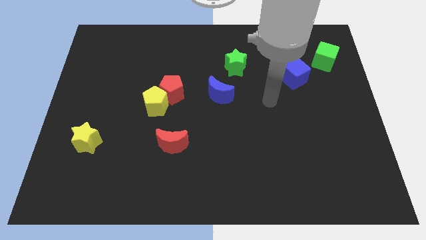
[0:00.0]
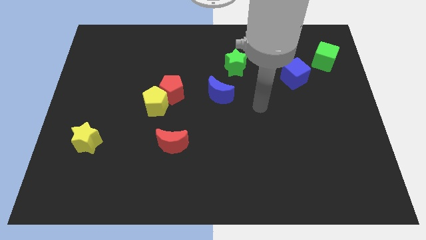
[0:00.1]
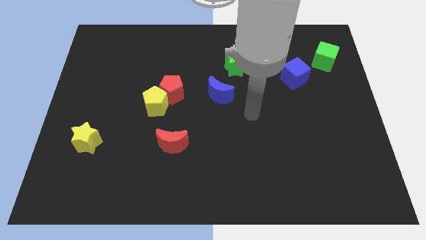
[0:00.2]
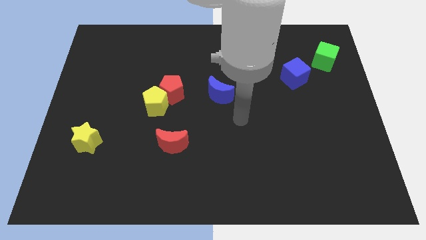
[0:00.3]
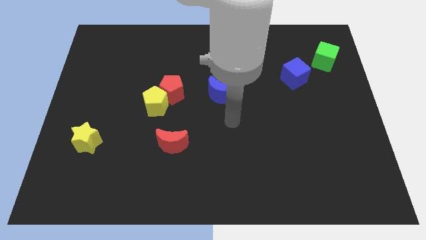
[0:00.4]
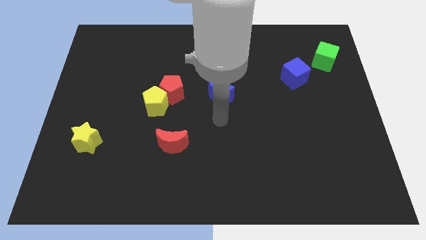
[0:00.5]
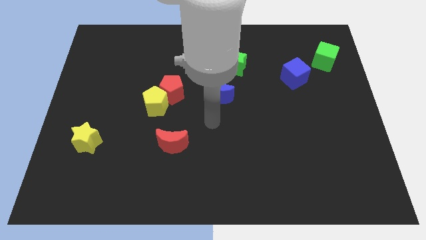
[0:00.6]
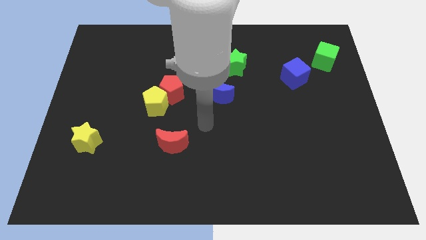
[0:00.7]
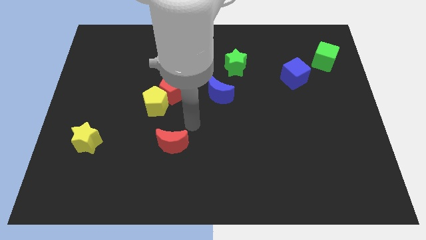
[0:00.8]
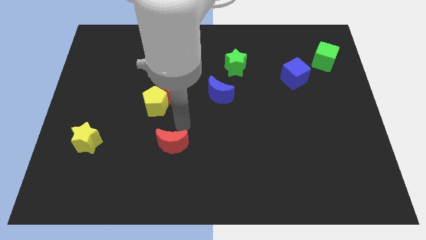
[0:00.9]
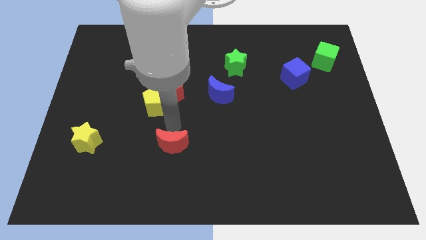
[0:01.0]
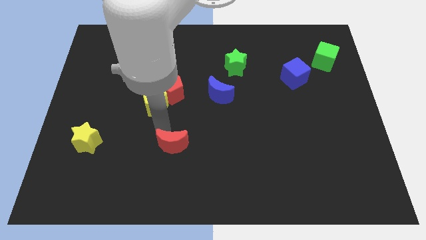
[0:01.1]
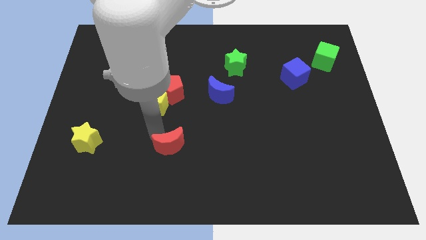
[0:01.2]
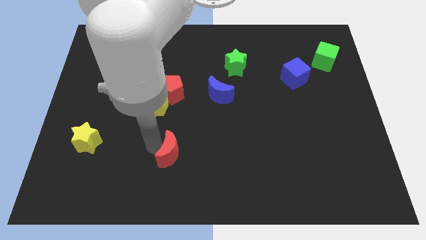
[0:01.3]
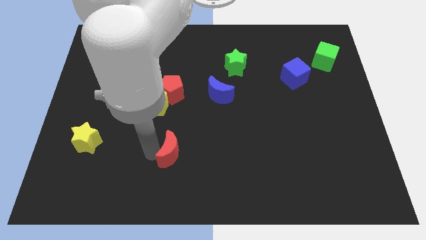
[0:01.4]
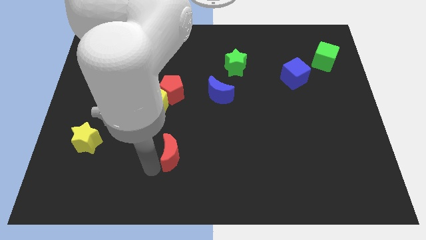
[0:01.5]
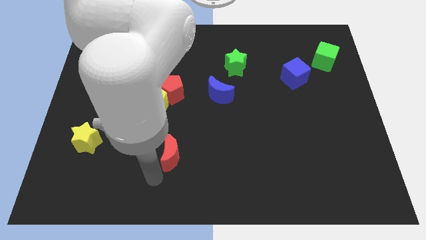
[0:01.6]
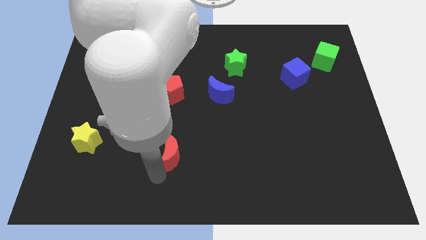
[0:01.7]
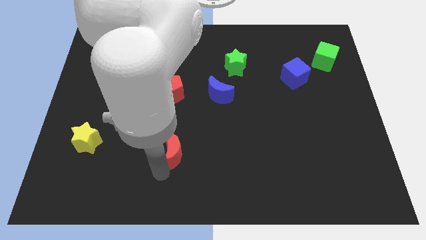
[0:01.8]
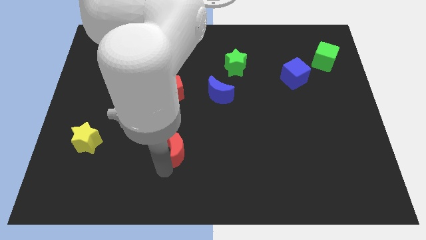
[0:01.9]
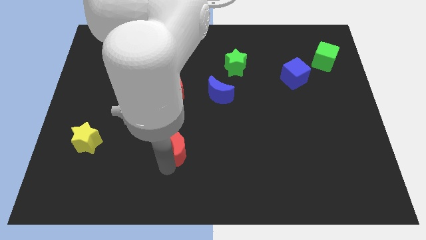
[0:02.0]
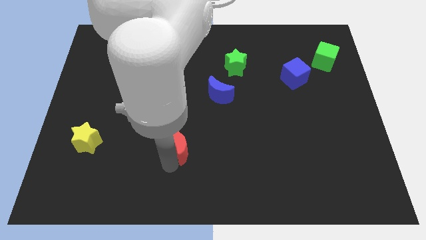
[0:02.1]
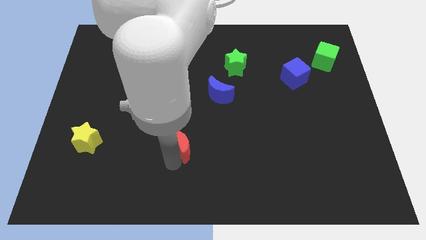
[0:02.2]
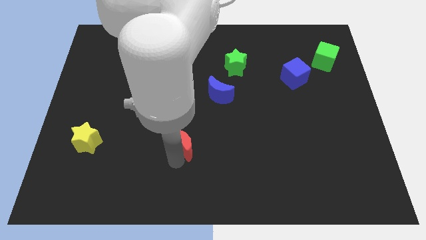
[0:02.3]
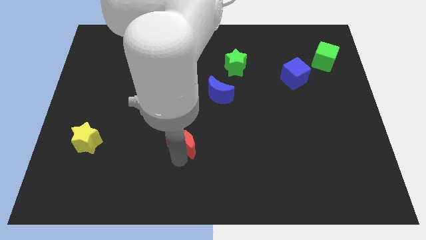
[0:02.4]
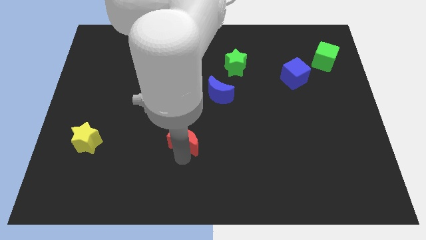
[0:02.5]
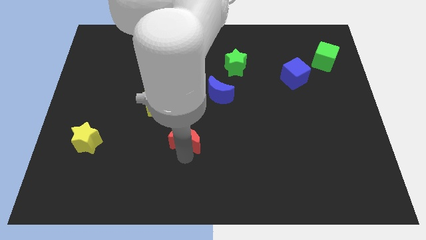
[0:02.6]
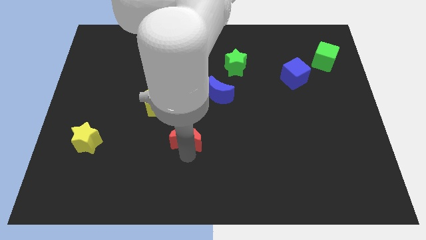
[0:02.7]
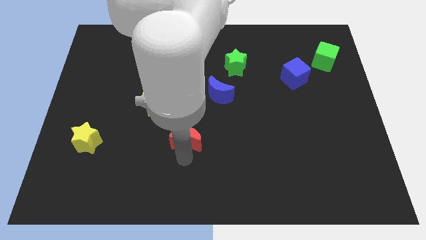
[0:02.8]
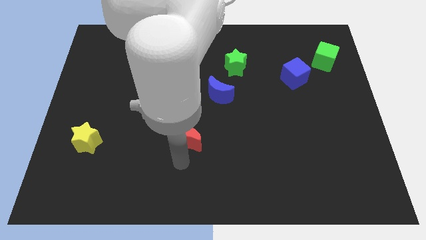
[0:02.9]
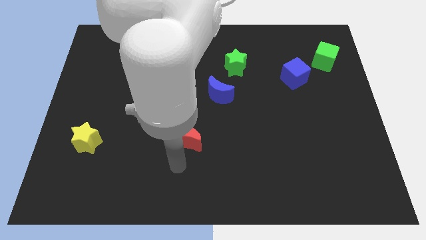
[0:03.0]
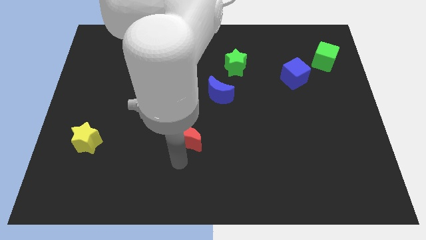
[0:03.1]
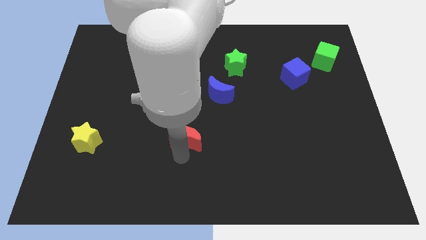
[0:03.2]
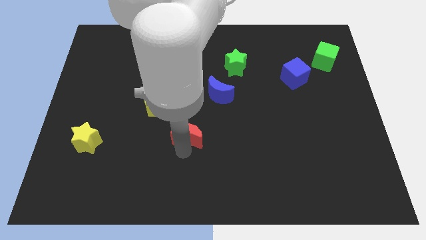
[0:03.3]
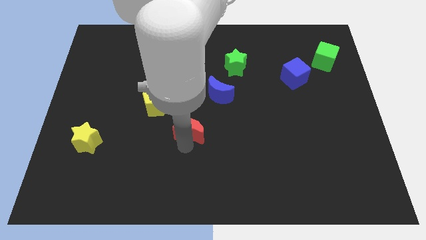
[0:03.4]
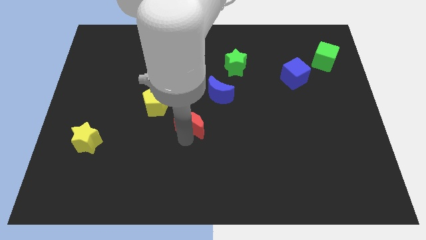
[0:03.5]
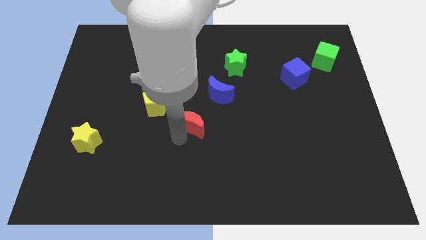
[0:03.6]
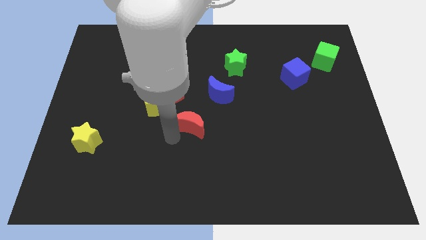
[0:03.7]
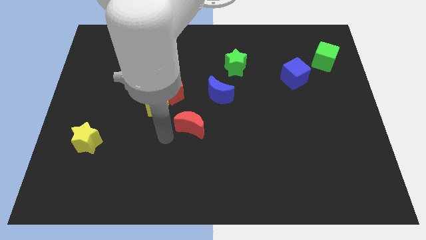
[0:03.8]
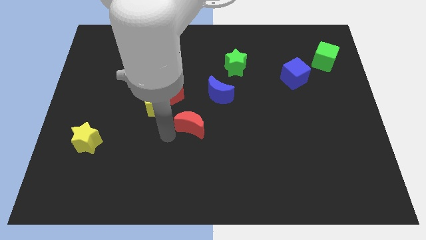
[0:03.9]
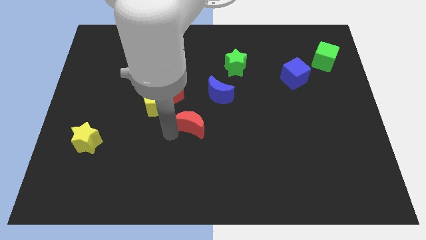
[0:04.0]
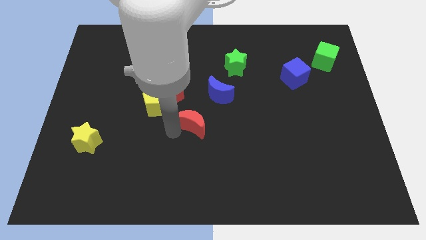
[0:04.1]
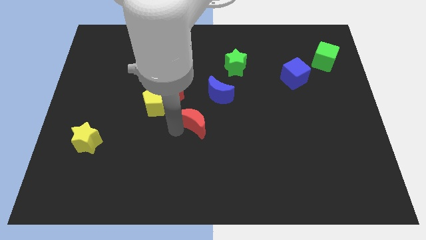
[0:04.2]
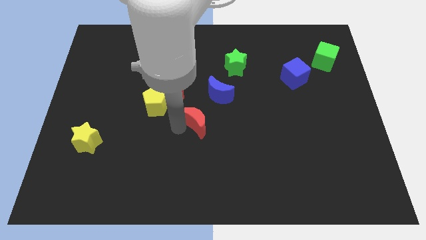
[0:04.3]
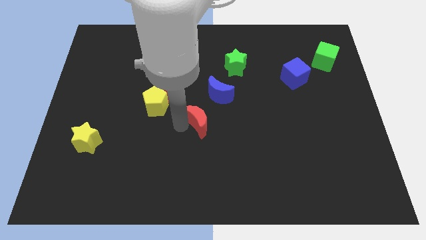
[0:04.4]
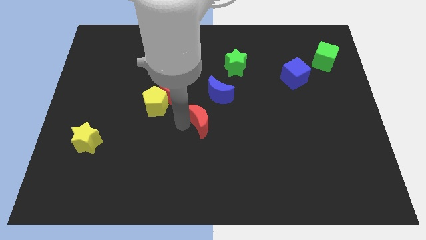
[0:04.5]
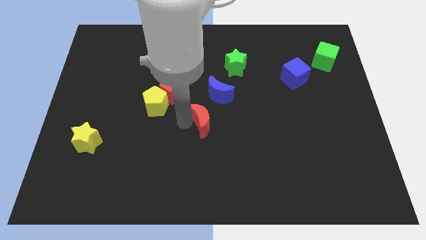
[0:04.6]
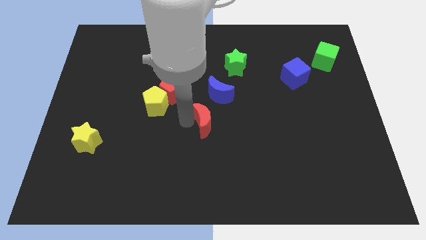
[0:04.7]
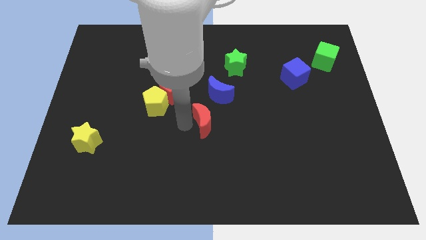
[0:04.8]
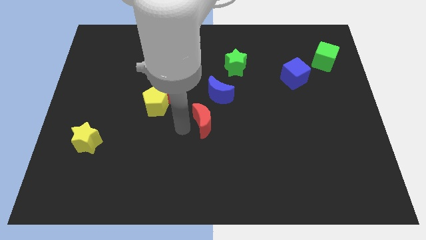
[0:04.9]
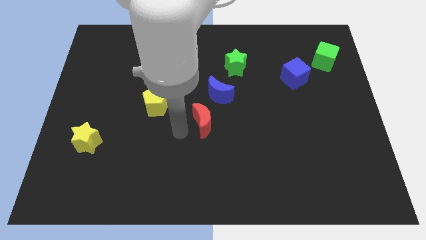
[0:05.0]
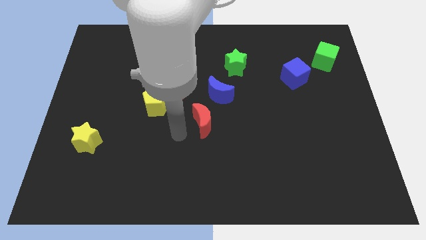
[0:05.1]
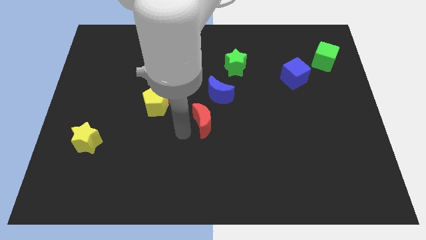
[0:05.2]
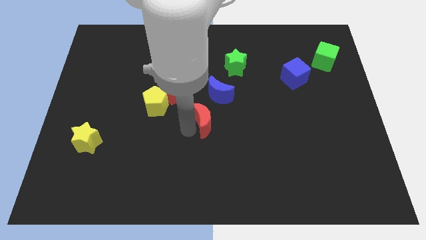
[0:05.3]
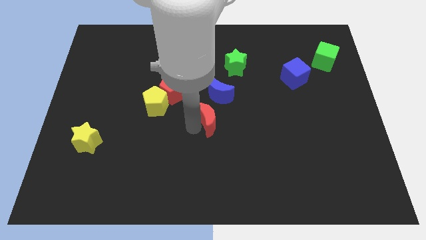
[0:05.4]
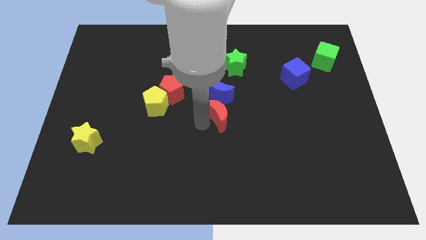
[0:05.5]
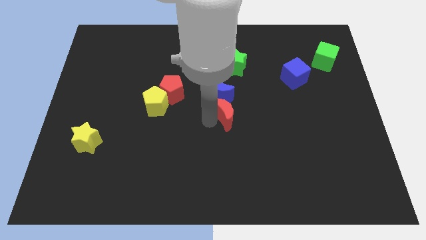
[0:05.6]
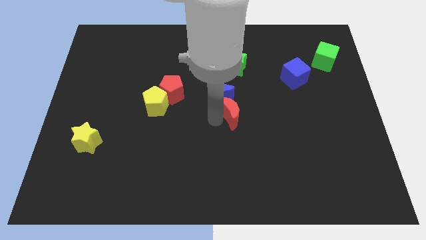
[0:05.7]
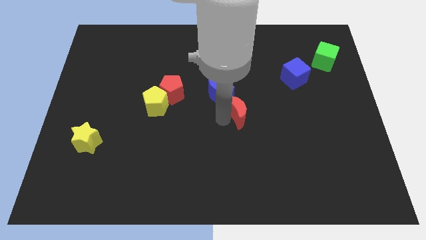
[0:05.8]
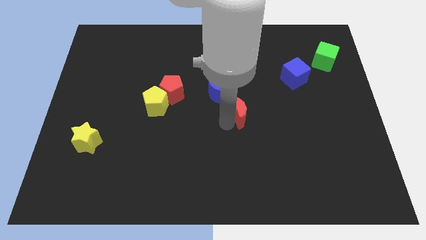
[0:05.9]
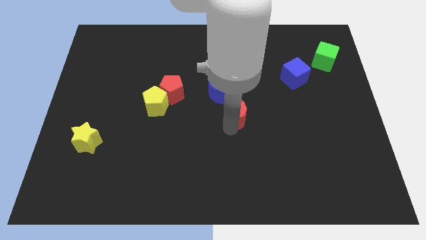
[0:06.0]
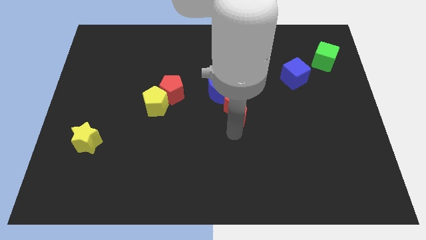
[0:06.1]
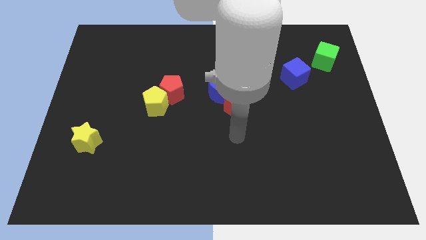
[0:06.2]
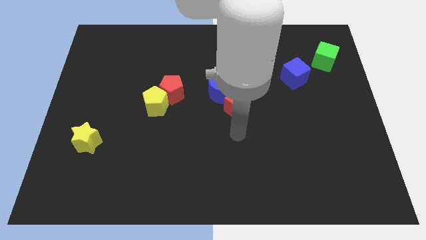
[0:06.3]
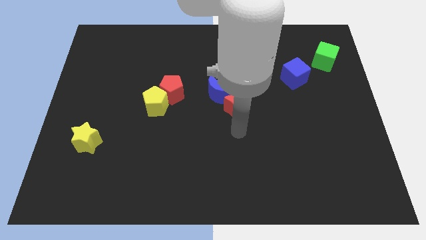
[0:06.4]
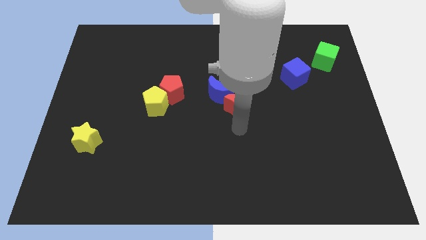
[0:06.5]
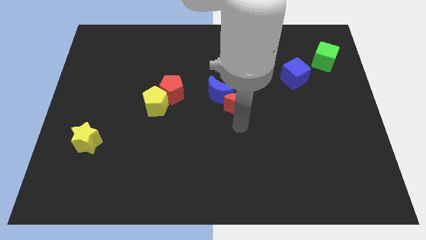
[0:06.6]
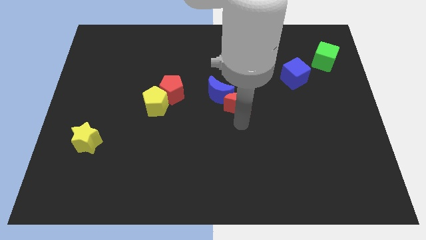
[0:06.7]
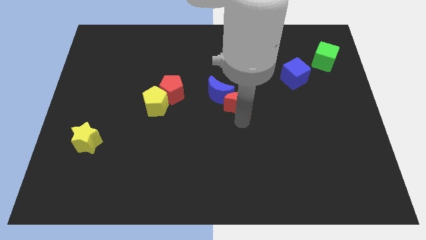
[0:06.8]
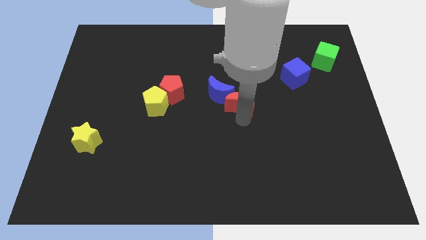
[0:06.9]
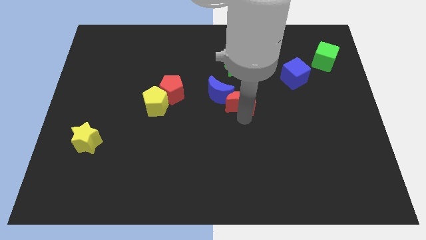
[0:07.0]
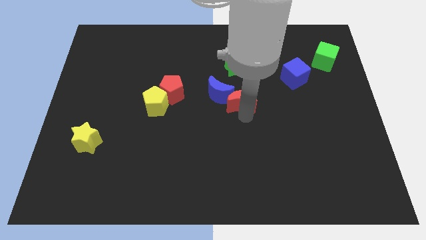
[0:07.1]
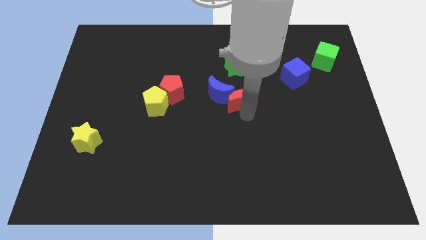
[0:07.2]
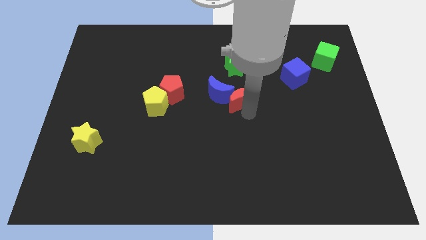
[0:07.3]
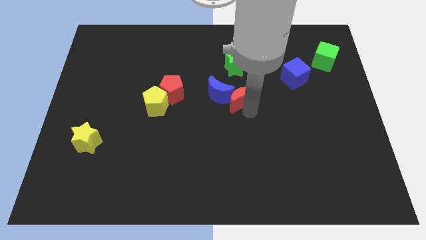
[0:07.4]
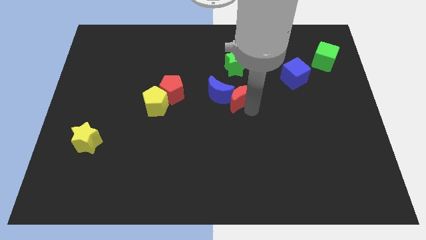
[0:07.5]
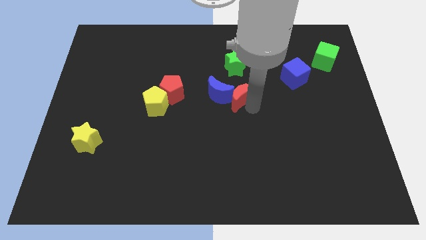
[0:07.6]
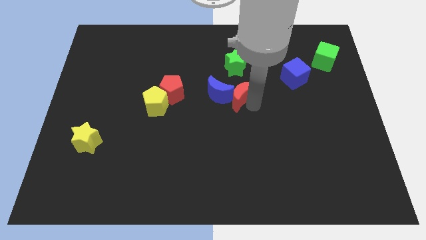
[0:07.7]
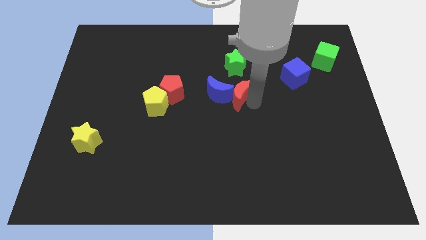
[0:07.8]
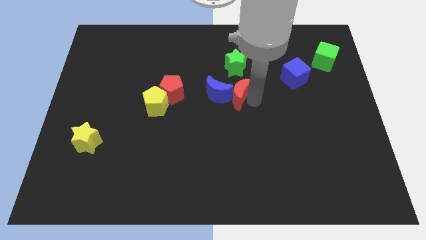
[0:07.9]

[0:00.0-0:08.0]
slide the red moon right of the red pentagon
